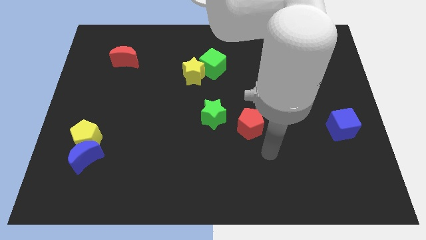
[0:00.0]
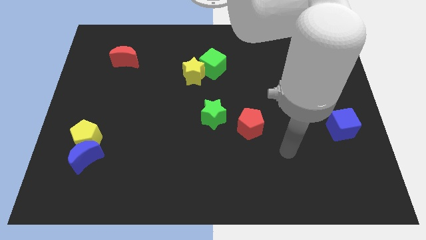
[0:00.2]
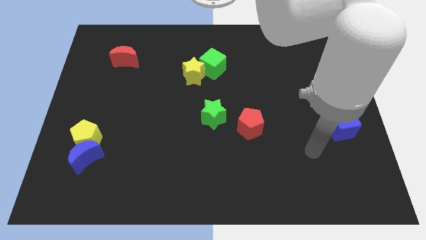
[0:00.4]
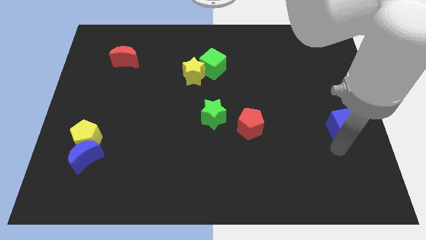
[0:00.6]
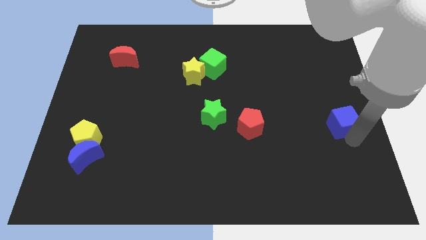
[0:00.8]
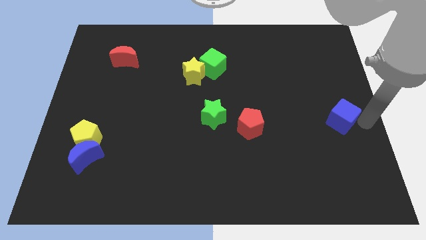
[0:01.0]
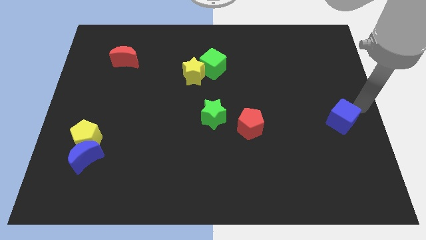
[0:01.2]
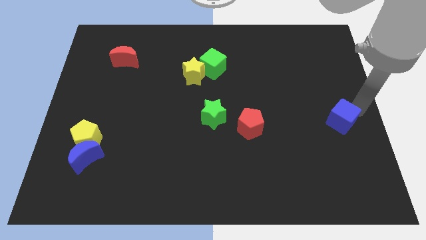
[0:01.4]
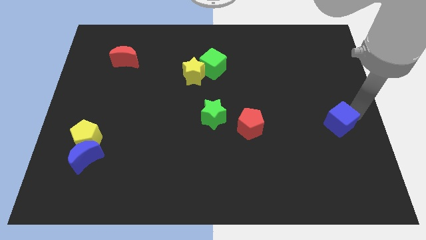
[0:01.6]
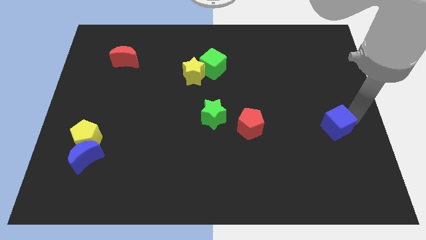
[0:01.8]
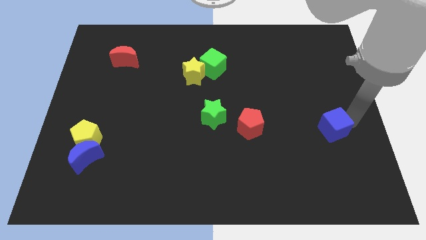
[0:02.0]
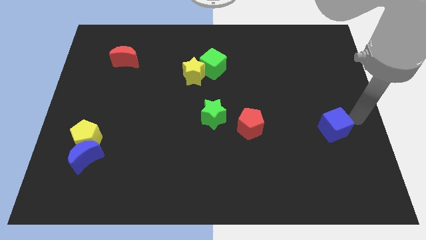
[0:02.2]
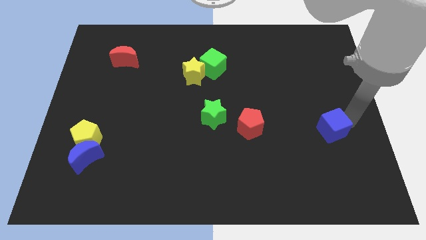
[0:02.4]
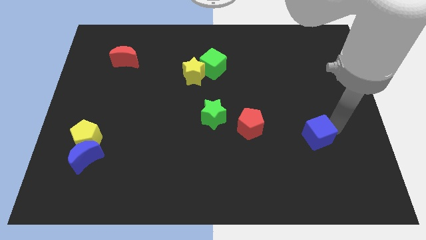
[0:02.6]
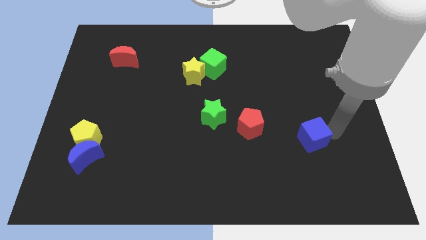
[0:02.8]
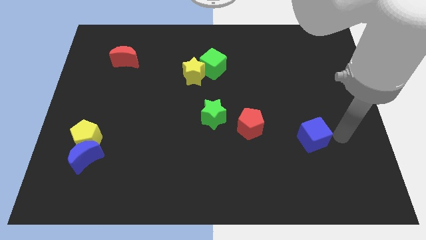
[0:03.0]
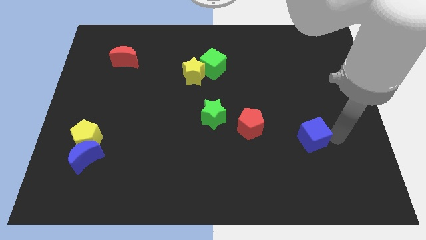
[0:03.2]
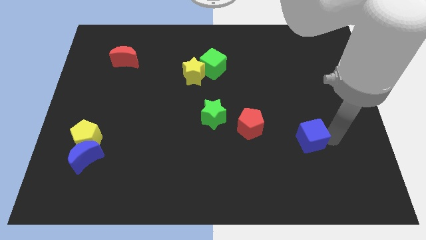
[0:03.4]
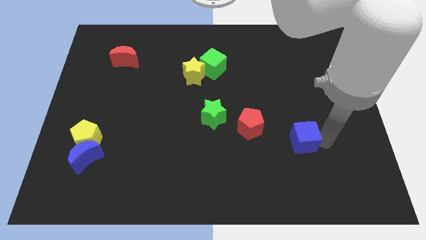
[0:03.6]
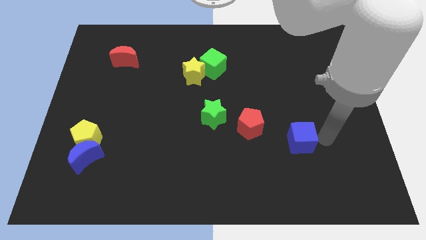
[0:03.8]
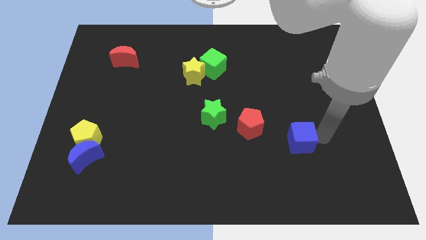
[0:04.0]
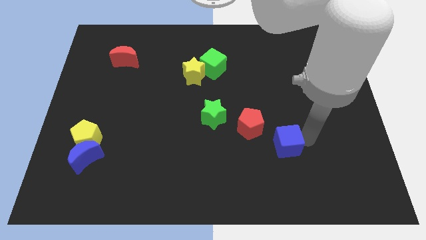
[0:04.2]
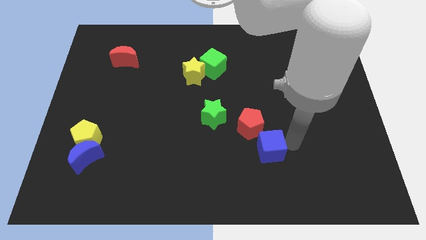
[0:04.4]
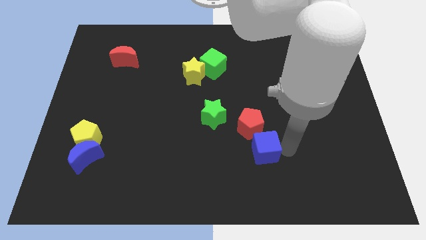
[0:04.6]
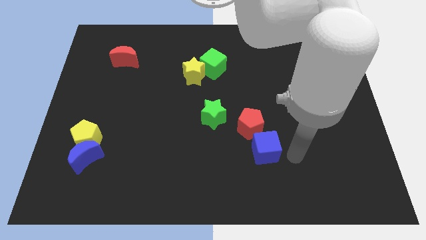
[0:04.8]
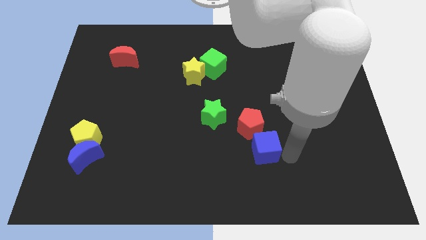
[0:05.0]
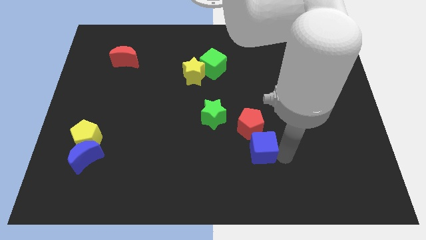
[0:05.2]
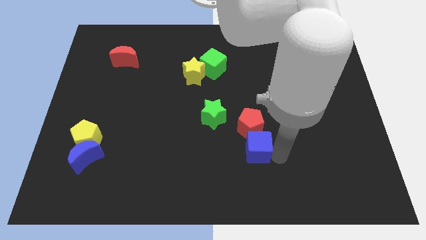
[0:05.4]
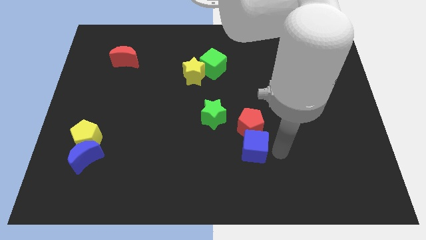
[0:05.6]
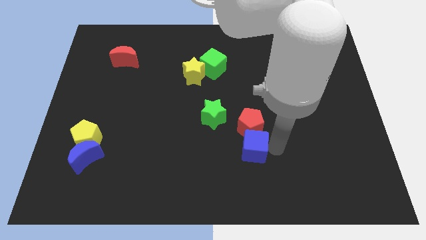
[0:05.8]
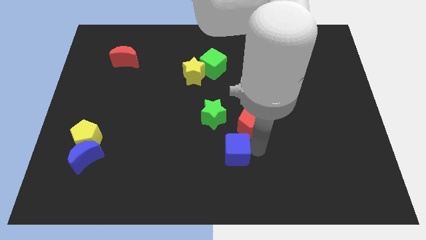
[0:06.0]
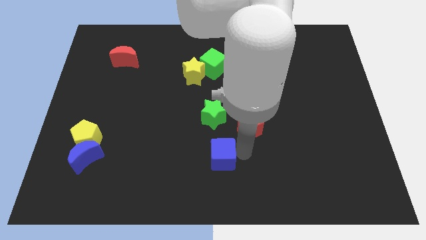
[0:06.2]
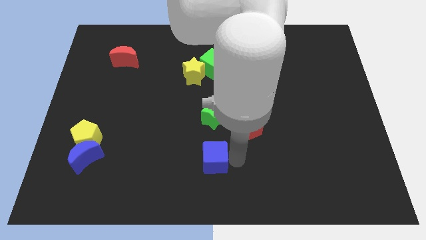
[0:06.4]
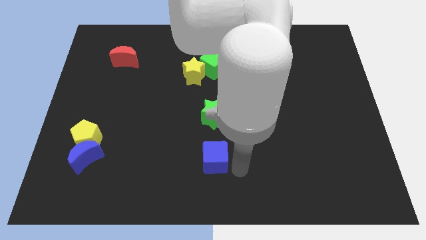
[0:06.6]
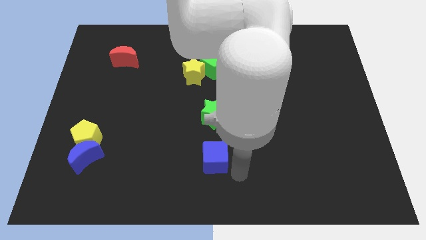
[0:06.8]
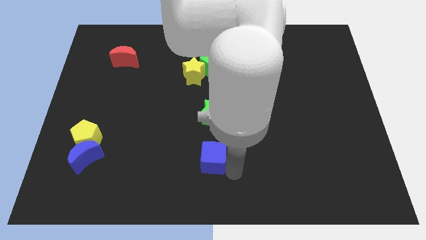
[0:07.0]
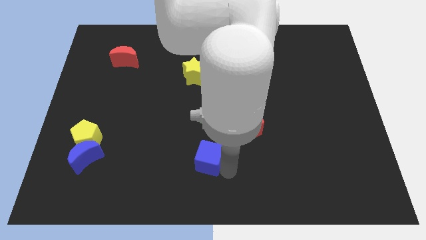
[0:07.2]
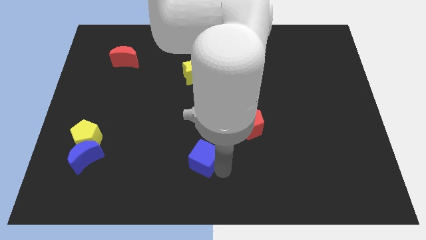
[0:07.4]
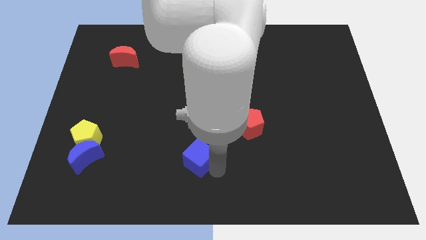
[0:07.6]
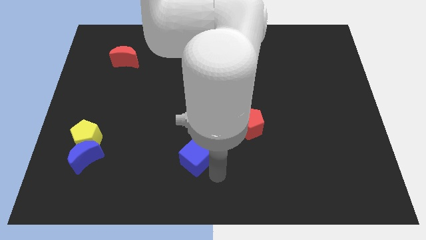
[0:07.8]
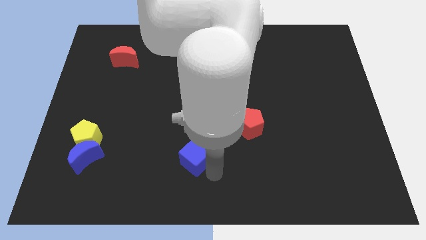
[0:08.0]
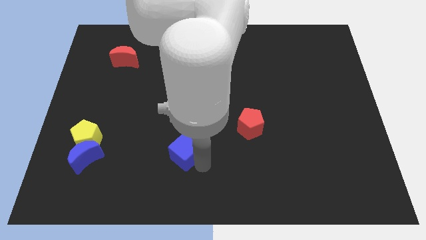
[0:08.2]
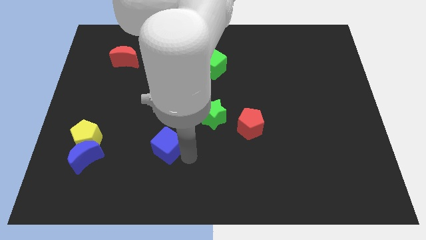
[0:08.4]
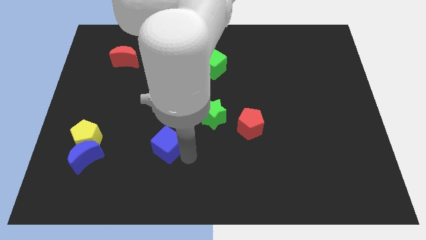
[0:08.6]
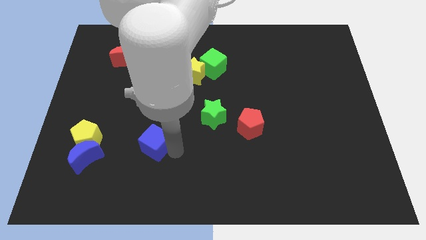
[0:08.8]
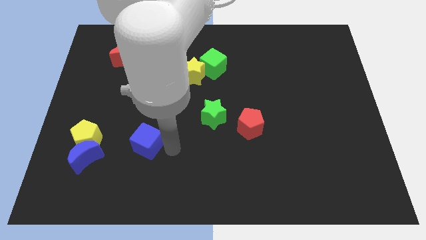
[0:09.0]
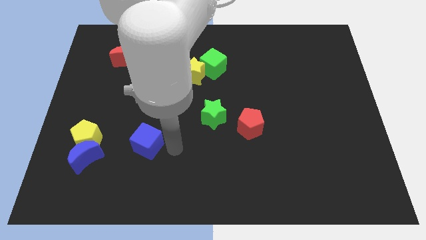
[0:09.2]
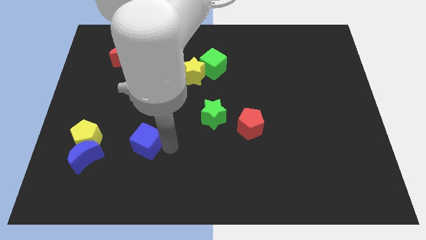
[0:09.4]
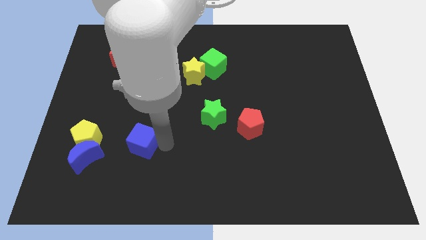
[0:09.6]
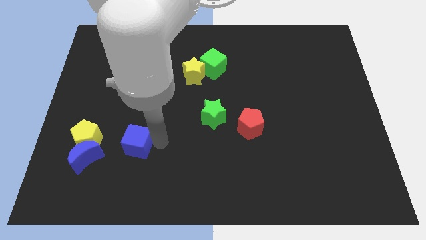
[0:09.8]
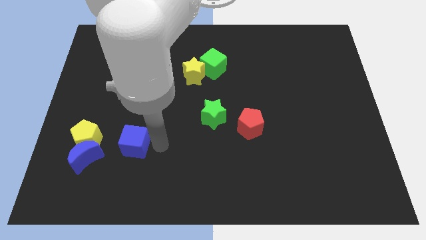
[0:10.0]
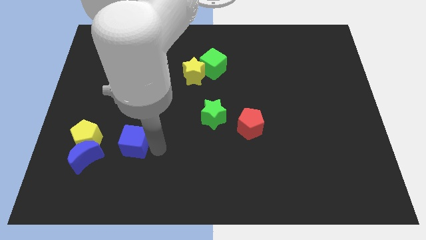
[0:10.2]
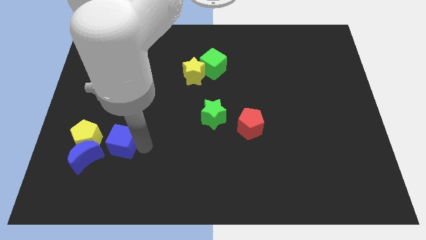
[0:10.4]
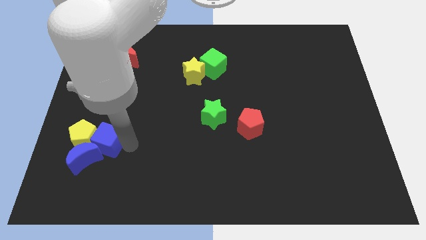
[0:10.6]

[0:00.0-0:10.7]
slide the blue cube next to the yellow pentagon

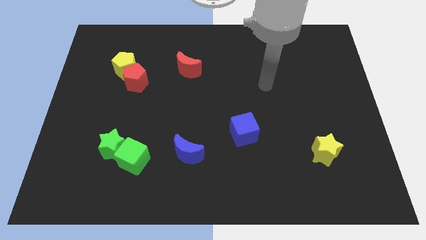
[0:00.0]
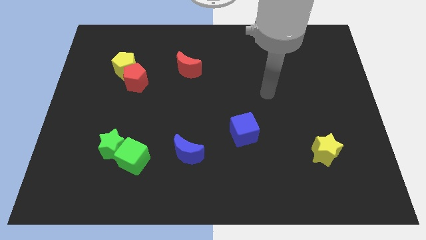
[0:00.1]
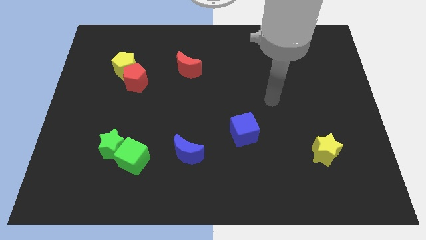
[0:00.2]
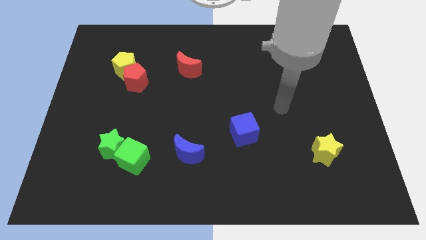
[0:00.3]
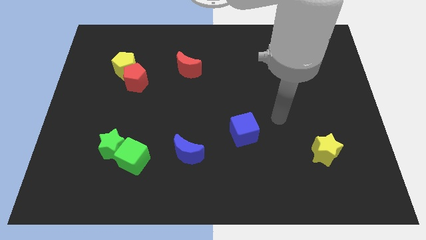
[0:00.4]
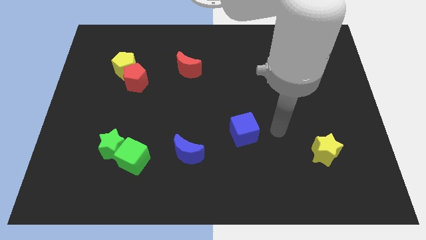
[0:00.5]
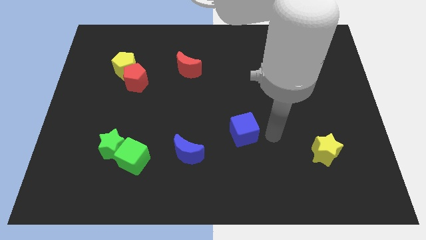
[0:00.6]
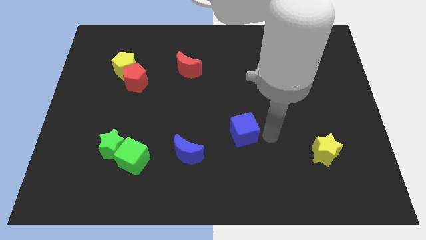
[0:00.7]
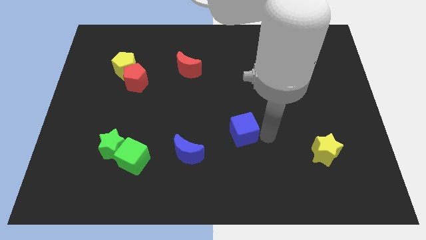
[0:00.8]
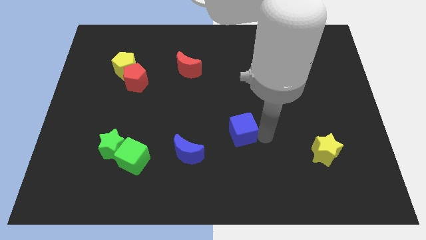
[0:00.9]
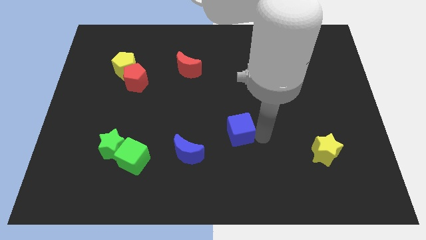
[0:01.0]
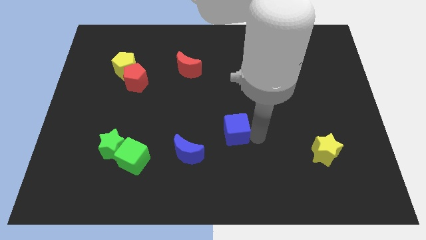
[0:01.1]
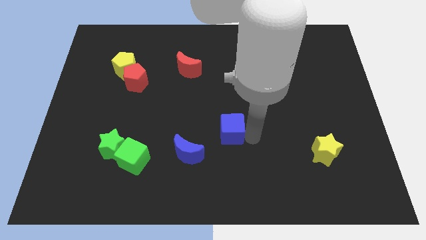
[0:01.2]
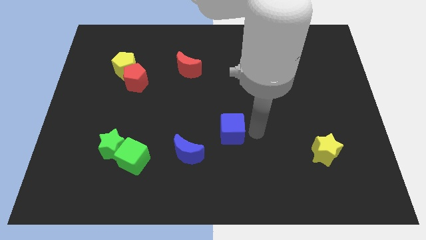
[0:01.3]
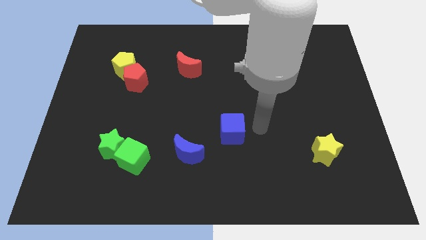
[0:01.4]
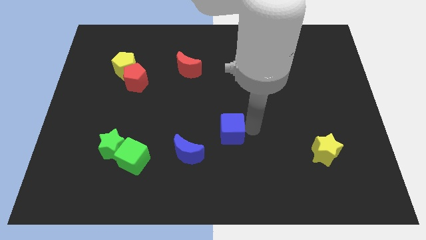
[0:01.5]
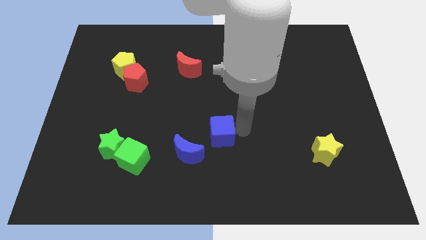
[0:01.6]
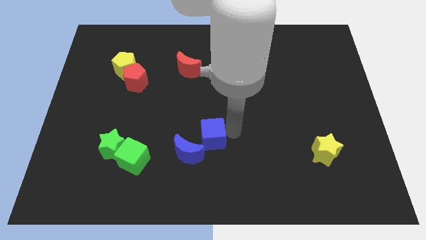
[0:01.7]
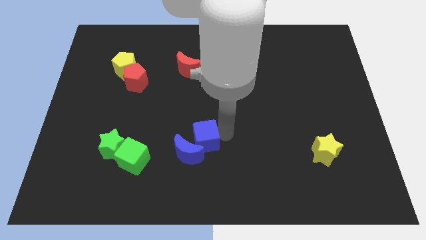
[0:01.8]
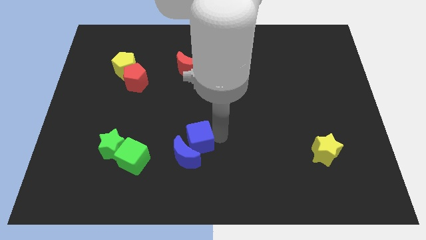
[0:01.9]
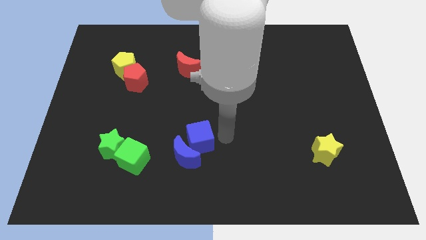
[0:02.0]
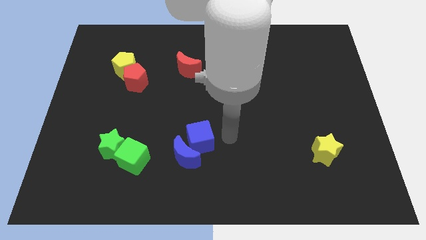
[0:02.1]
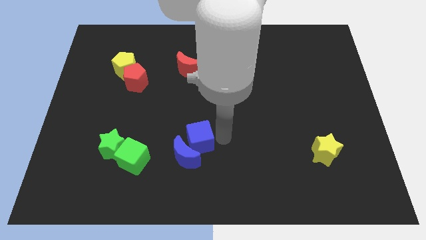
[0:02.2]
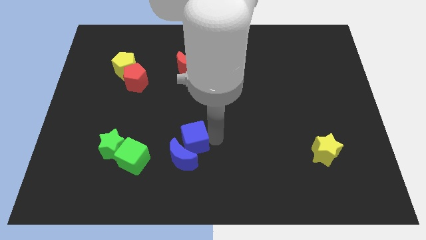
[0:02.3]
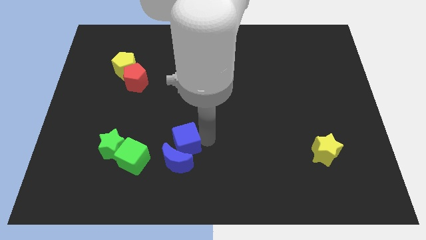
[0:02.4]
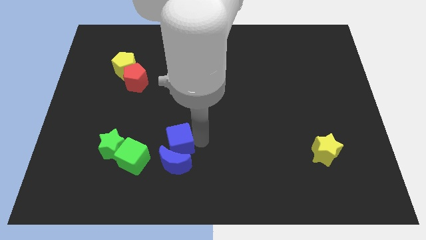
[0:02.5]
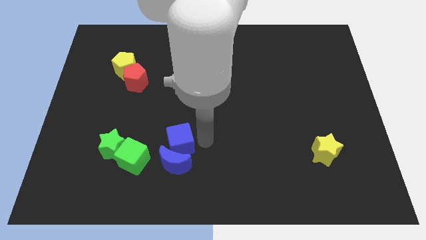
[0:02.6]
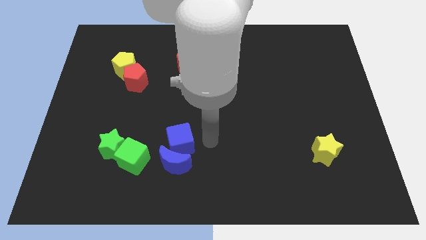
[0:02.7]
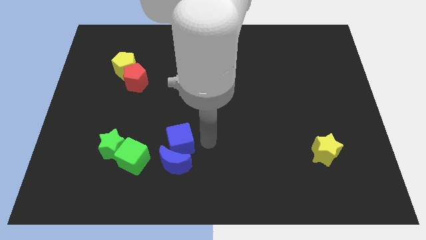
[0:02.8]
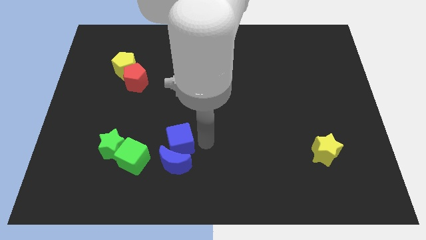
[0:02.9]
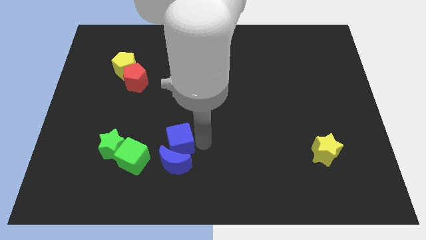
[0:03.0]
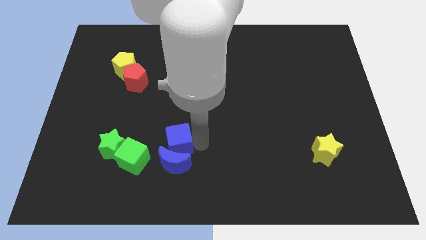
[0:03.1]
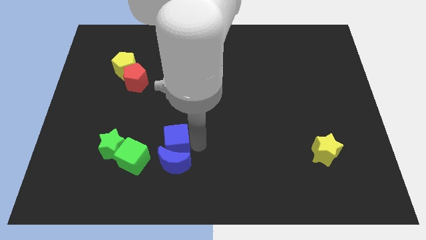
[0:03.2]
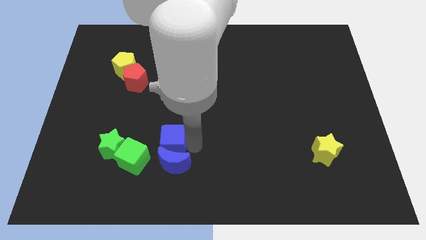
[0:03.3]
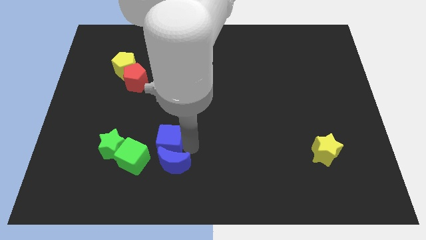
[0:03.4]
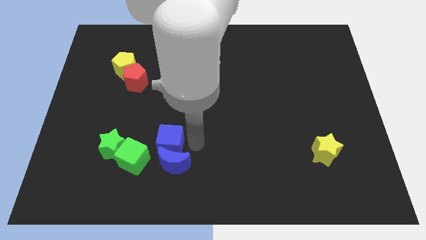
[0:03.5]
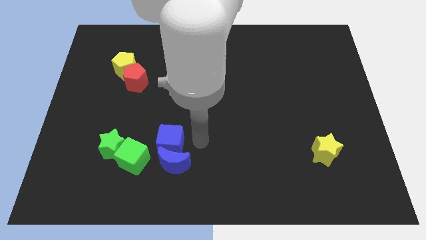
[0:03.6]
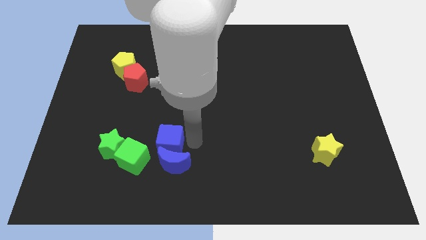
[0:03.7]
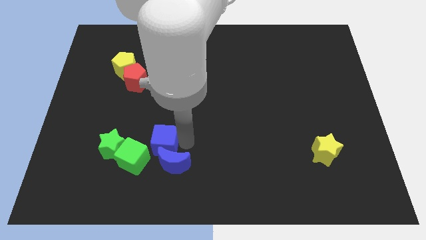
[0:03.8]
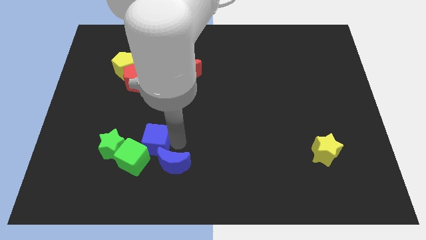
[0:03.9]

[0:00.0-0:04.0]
push the blue cube towards the green cube
